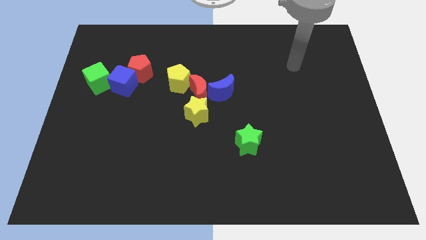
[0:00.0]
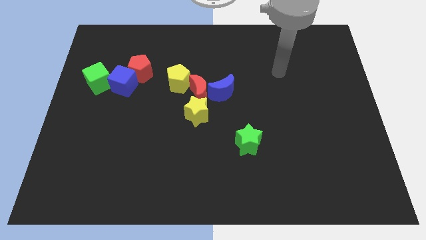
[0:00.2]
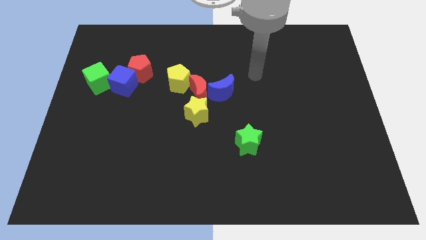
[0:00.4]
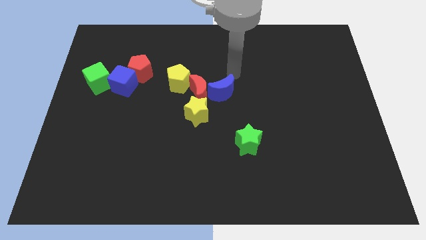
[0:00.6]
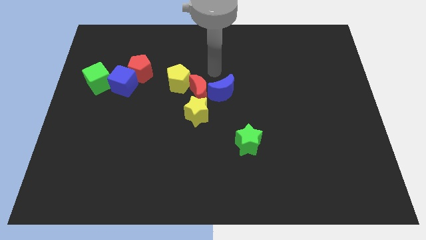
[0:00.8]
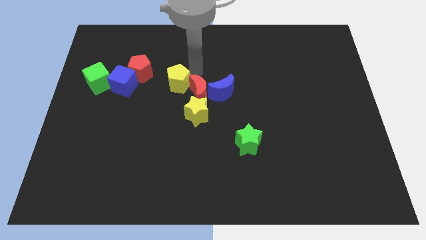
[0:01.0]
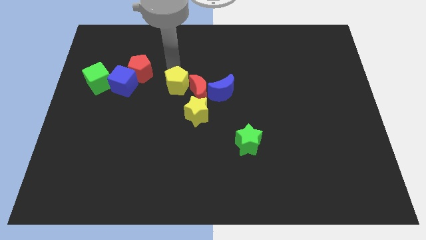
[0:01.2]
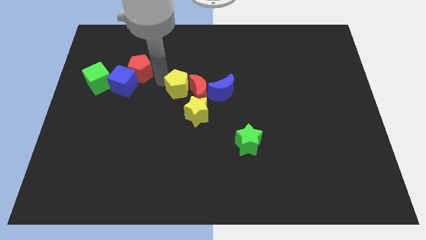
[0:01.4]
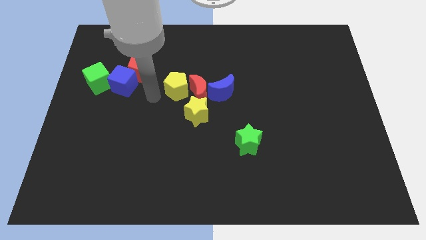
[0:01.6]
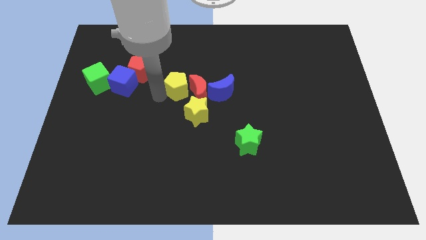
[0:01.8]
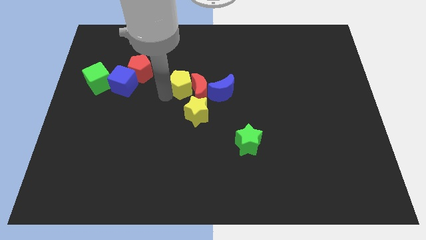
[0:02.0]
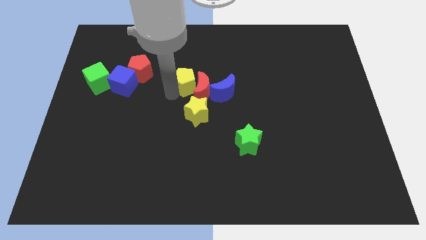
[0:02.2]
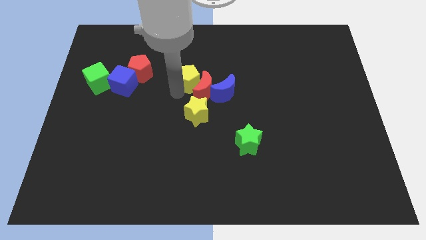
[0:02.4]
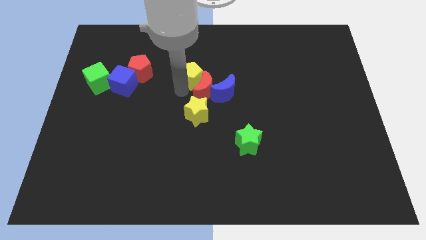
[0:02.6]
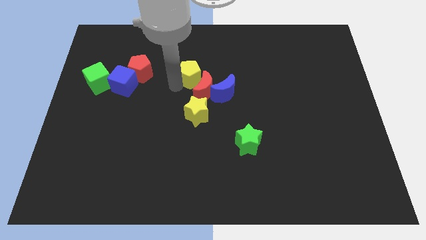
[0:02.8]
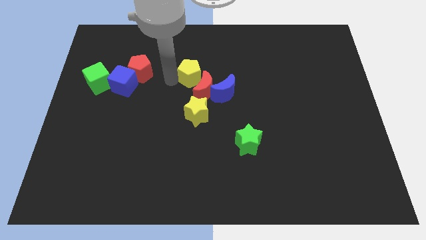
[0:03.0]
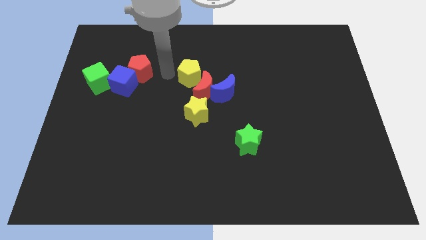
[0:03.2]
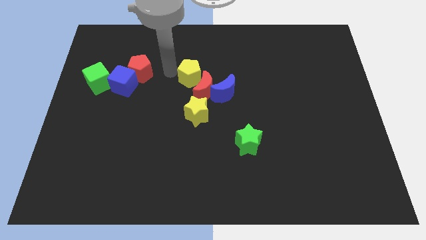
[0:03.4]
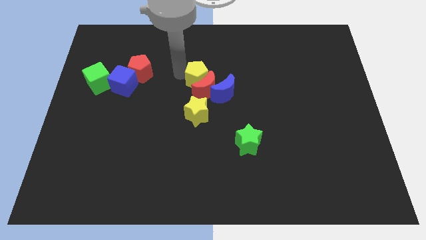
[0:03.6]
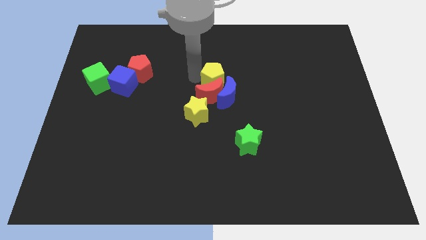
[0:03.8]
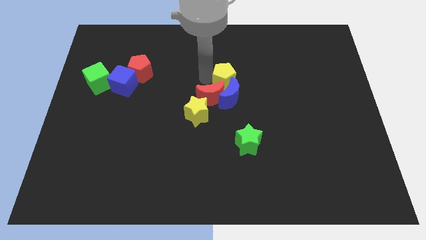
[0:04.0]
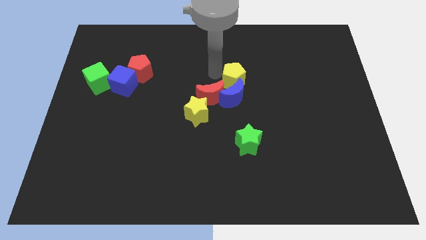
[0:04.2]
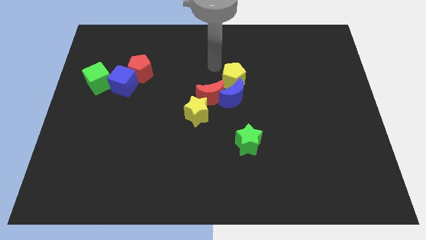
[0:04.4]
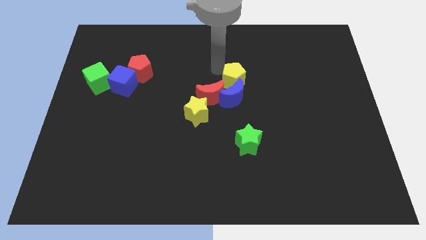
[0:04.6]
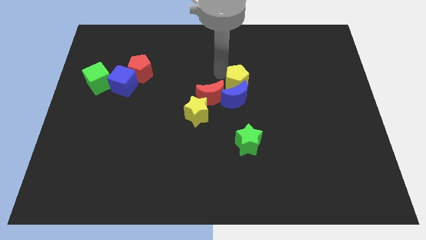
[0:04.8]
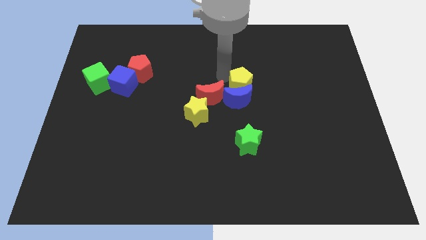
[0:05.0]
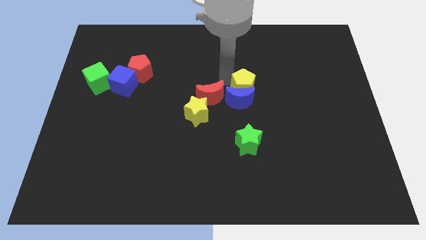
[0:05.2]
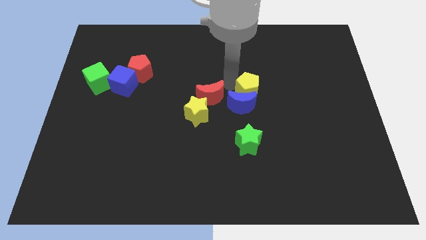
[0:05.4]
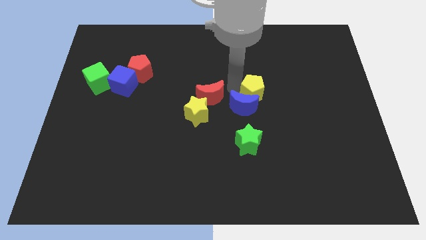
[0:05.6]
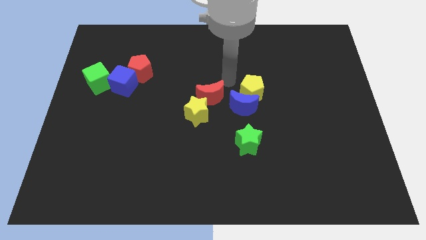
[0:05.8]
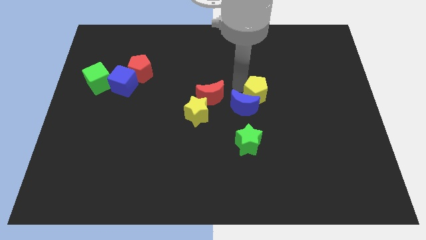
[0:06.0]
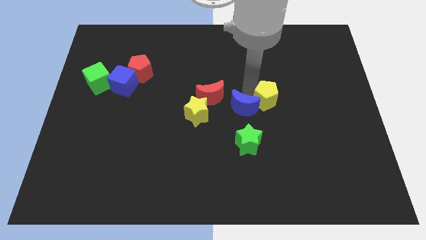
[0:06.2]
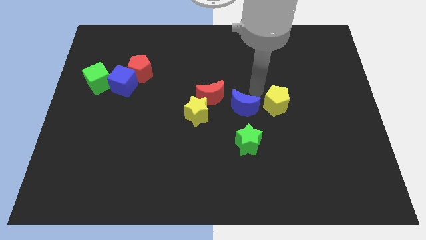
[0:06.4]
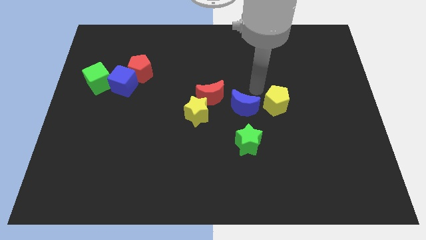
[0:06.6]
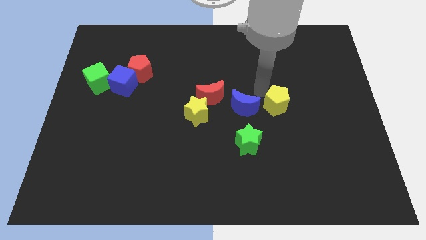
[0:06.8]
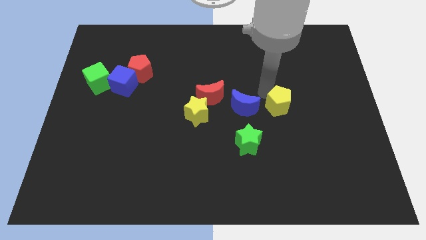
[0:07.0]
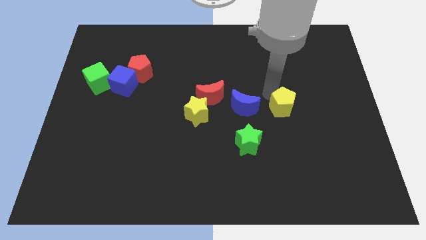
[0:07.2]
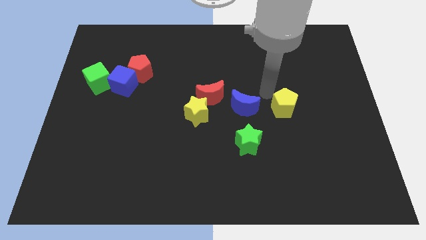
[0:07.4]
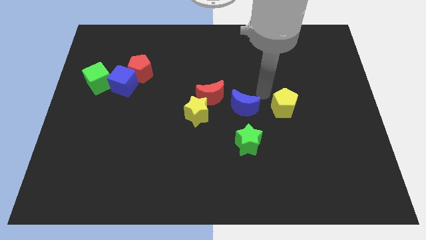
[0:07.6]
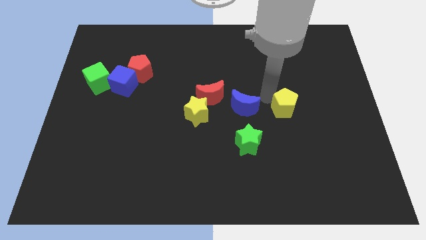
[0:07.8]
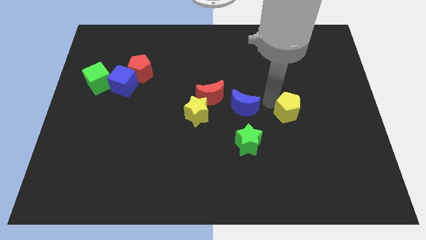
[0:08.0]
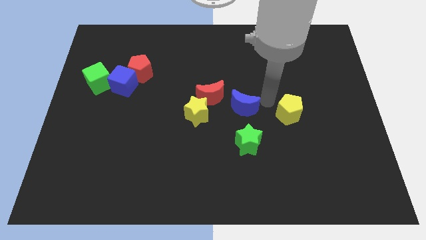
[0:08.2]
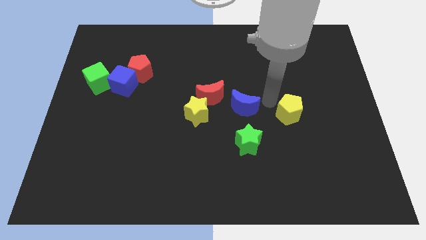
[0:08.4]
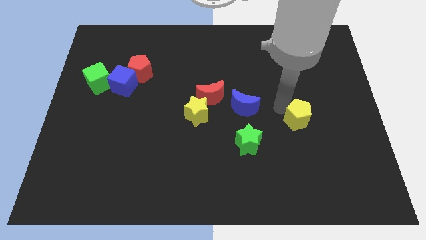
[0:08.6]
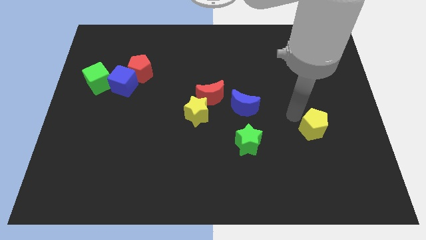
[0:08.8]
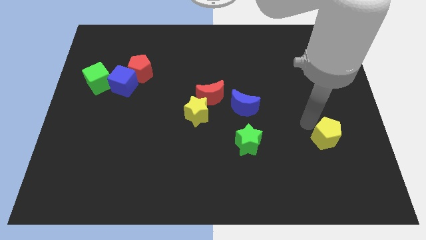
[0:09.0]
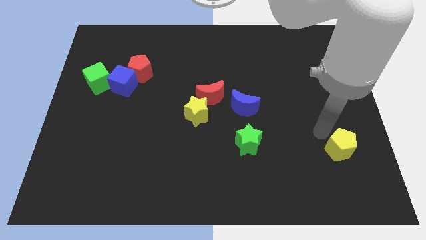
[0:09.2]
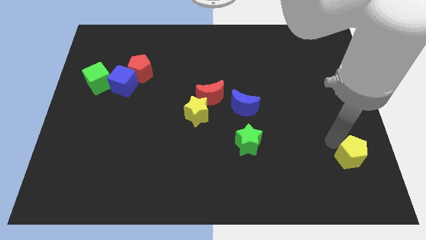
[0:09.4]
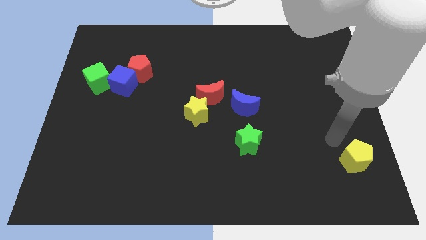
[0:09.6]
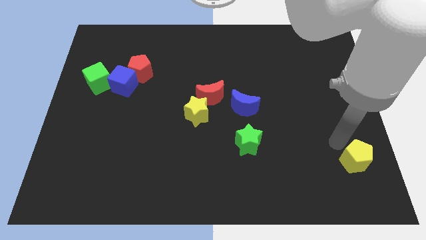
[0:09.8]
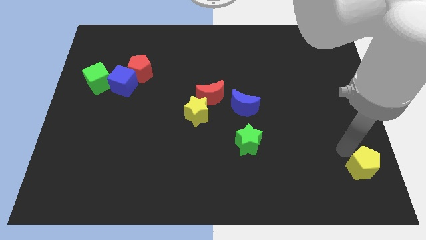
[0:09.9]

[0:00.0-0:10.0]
slide the yellow pentagon to the bottom right corner
